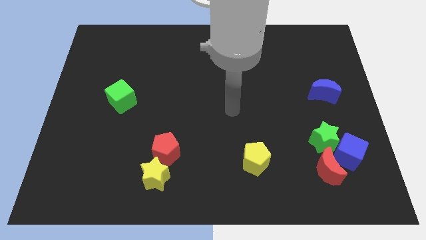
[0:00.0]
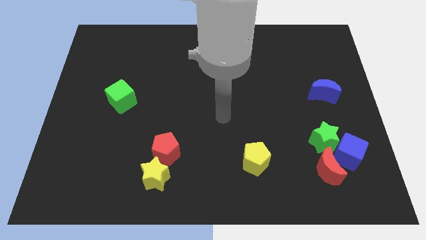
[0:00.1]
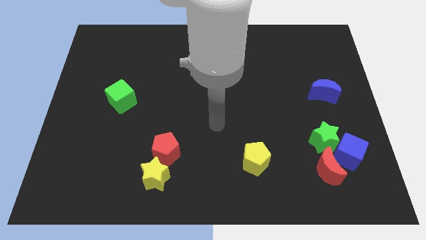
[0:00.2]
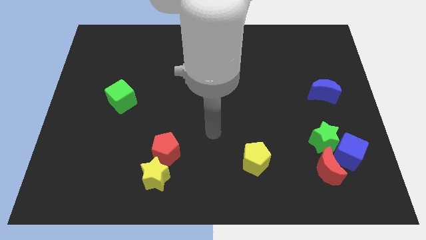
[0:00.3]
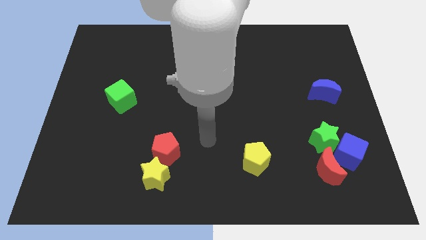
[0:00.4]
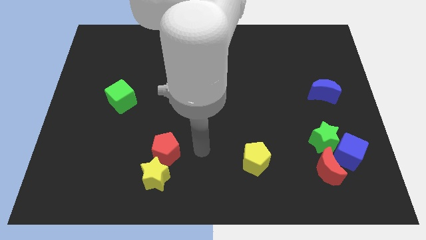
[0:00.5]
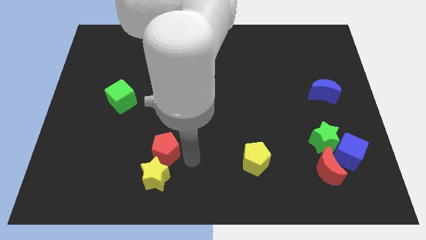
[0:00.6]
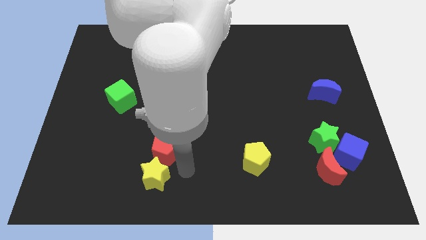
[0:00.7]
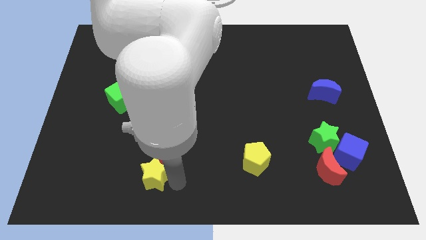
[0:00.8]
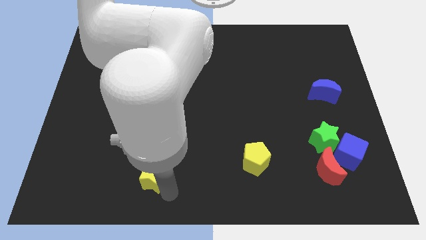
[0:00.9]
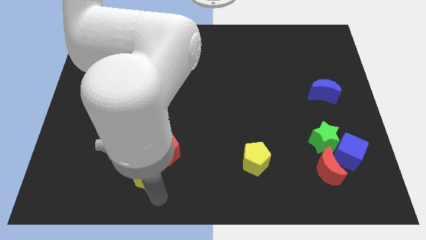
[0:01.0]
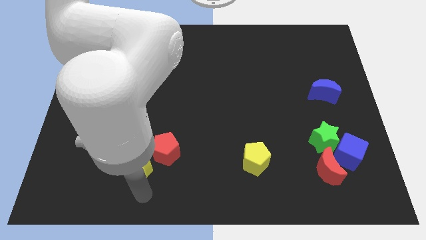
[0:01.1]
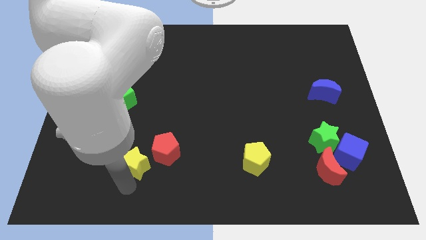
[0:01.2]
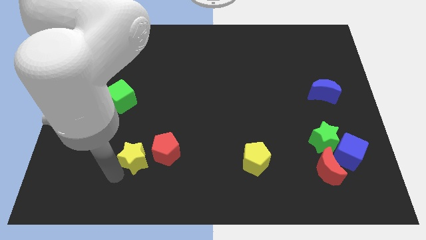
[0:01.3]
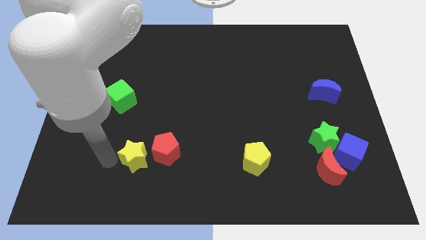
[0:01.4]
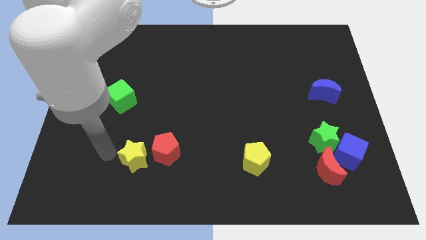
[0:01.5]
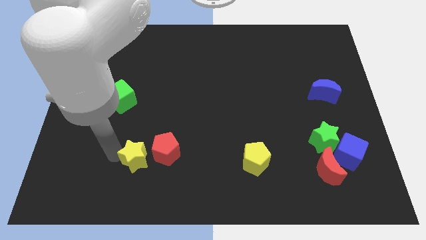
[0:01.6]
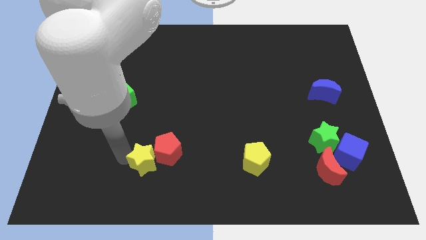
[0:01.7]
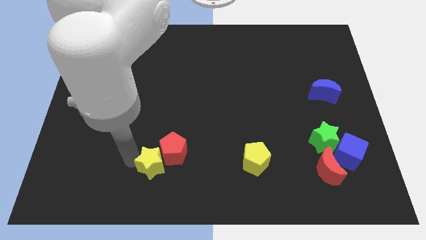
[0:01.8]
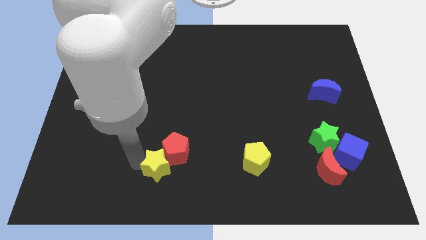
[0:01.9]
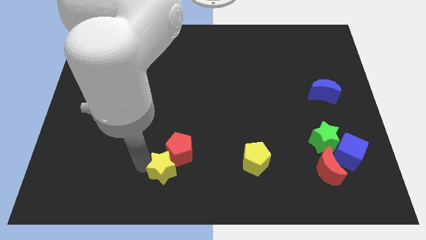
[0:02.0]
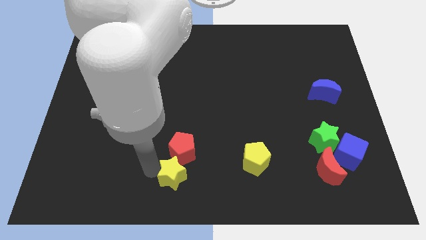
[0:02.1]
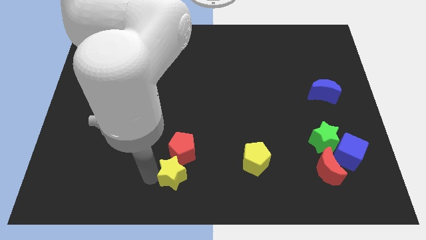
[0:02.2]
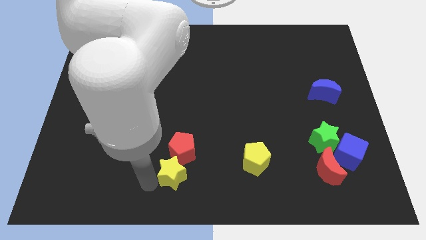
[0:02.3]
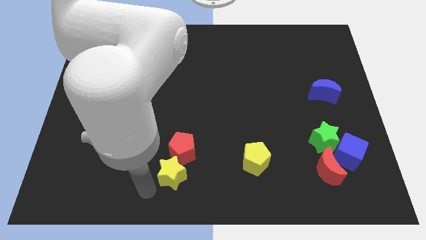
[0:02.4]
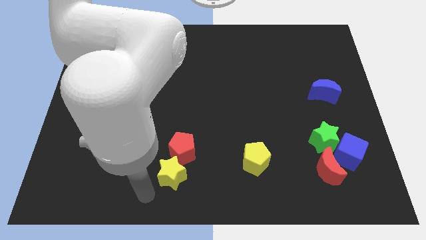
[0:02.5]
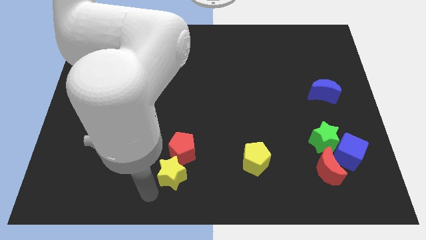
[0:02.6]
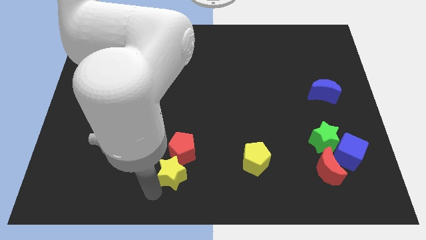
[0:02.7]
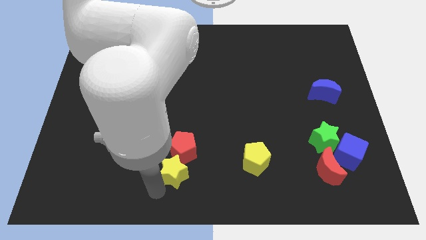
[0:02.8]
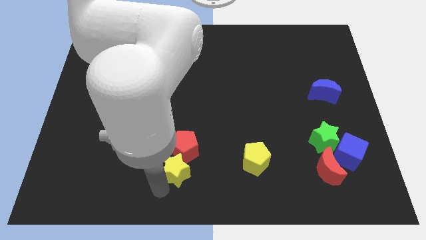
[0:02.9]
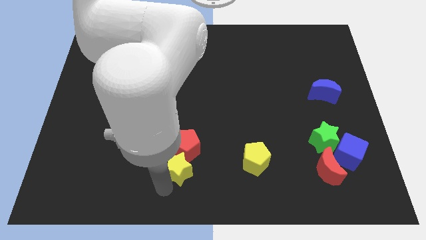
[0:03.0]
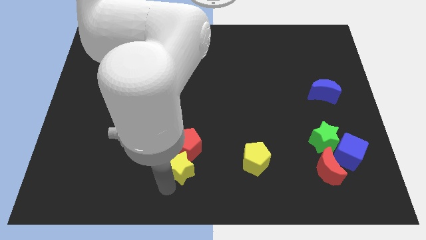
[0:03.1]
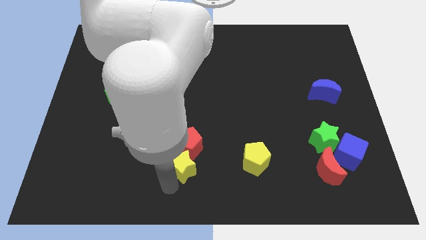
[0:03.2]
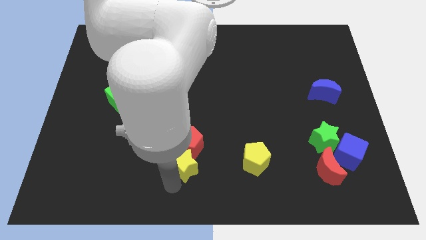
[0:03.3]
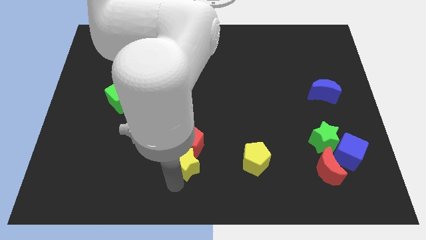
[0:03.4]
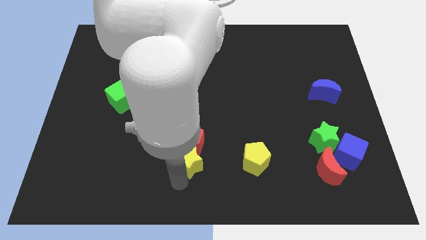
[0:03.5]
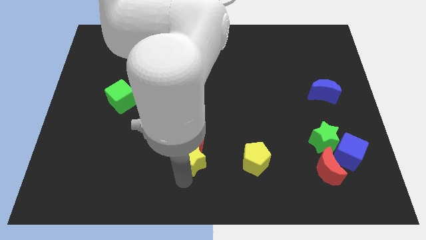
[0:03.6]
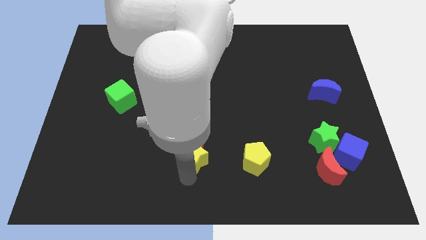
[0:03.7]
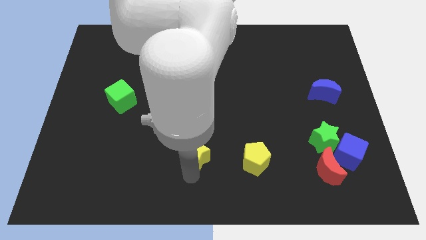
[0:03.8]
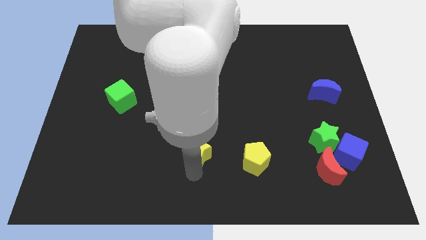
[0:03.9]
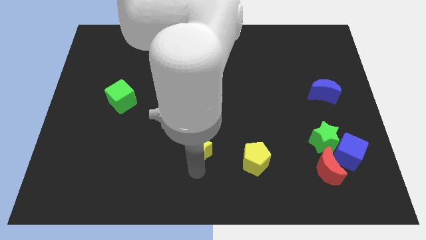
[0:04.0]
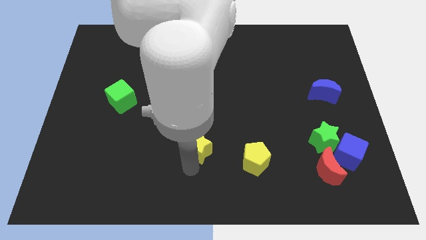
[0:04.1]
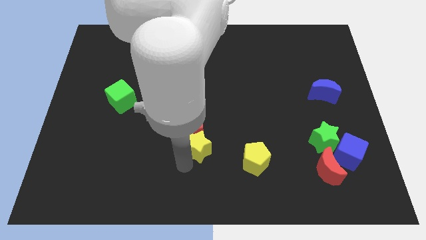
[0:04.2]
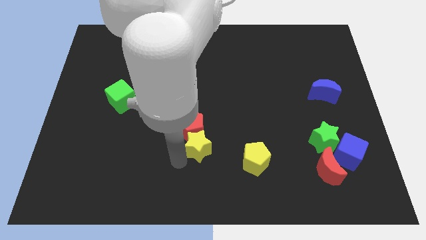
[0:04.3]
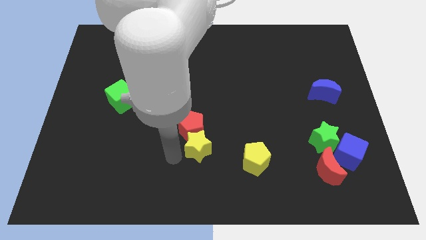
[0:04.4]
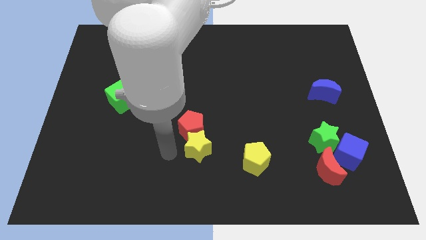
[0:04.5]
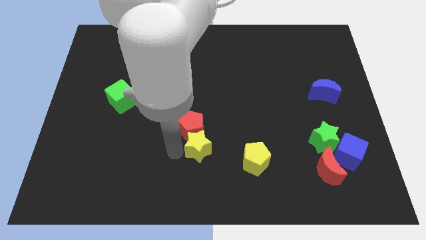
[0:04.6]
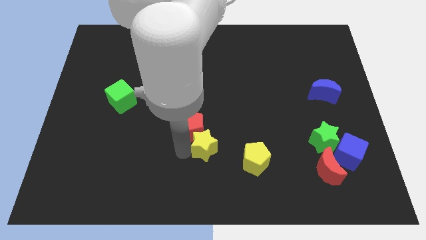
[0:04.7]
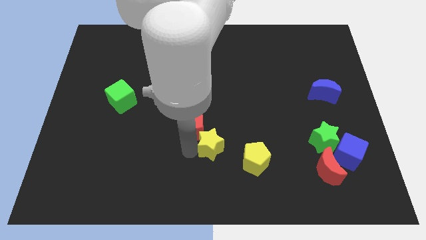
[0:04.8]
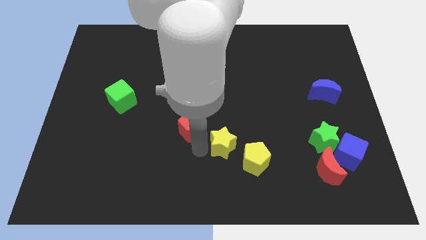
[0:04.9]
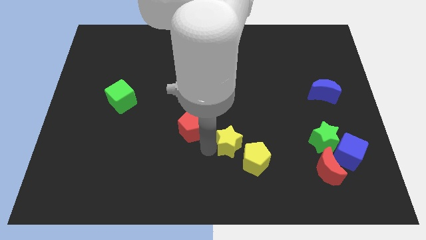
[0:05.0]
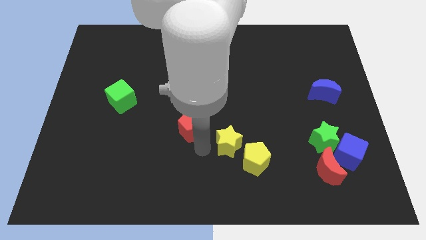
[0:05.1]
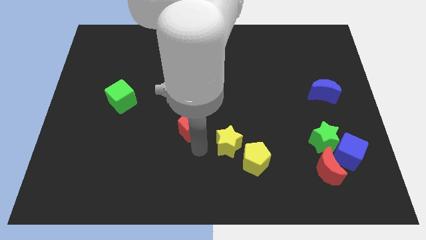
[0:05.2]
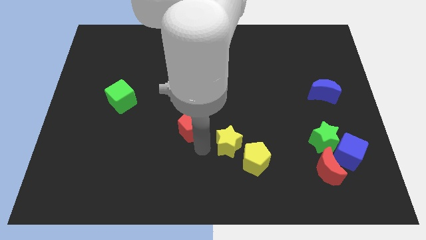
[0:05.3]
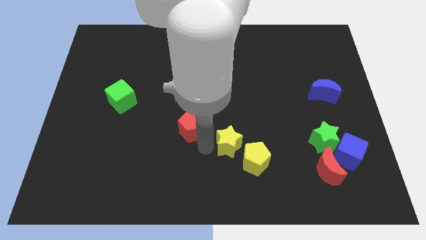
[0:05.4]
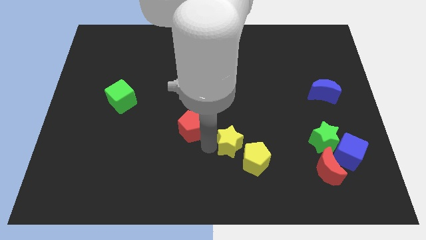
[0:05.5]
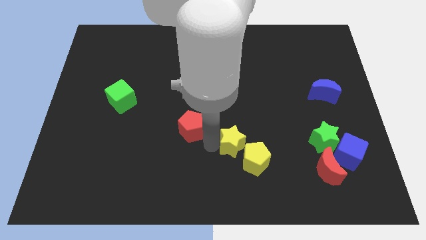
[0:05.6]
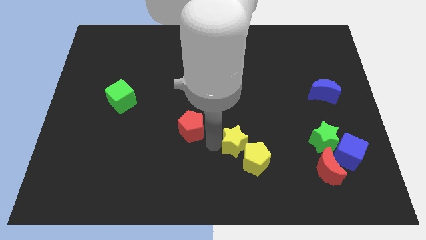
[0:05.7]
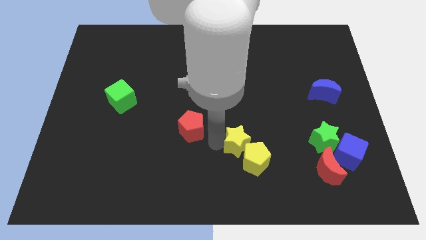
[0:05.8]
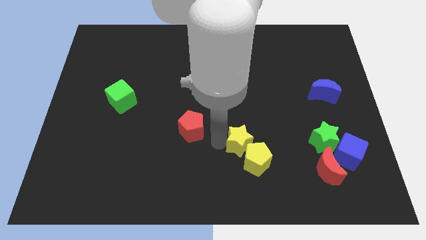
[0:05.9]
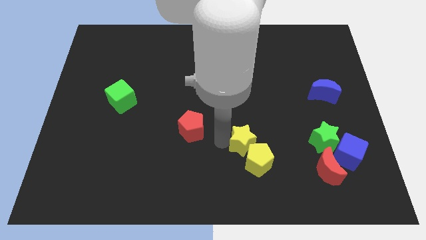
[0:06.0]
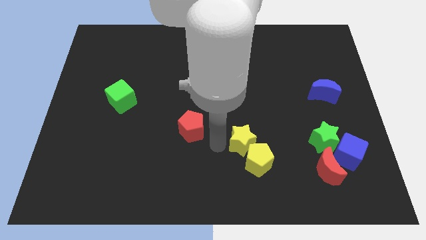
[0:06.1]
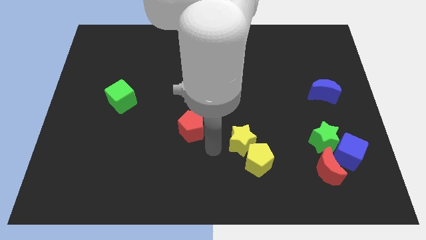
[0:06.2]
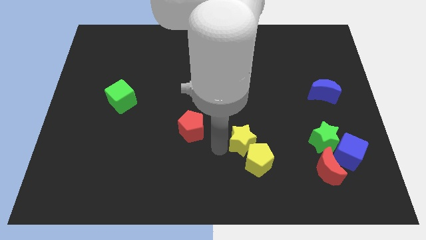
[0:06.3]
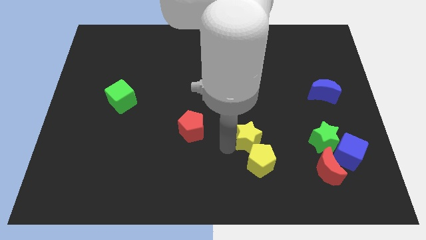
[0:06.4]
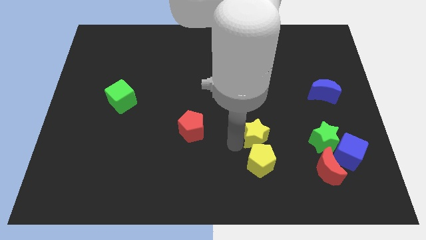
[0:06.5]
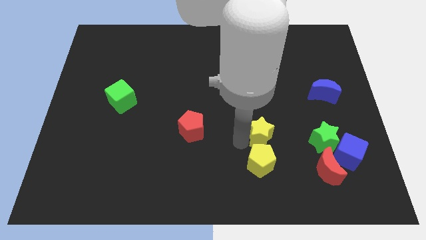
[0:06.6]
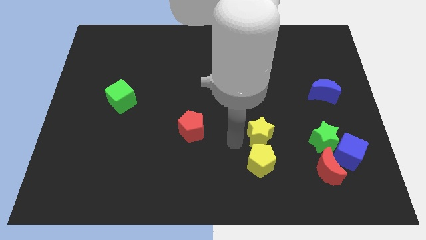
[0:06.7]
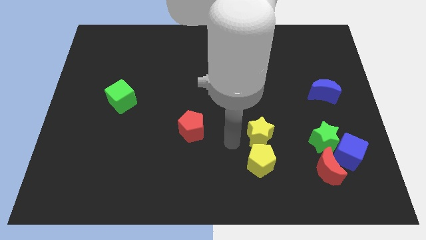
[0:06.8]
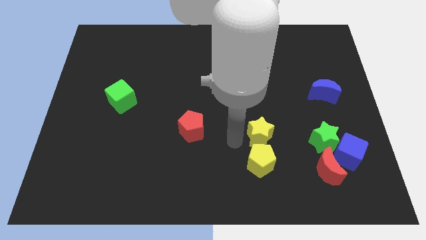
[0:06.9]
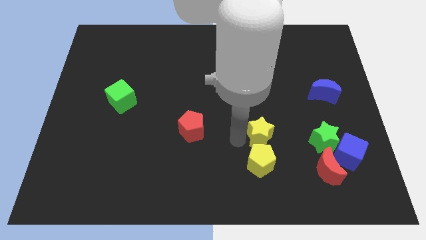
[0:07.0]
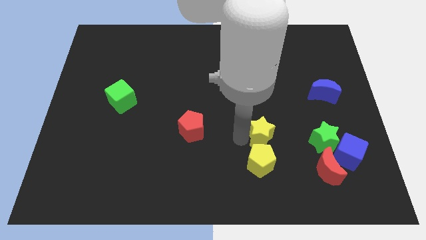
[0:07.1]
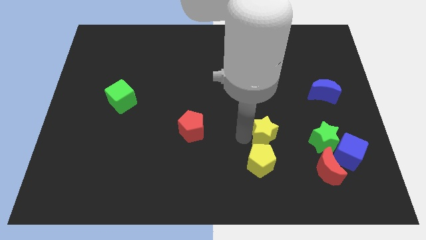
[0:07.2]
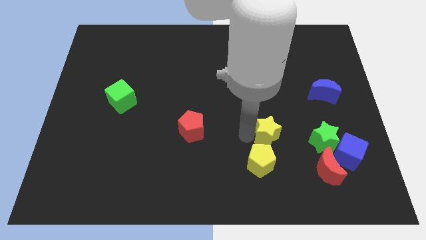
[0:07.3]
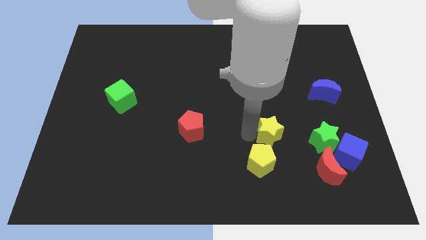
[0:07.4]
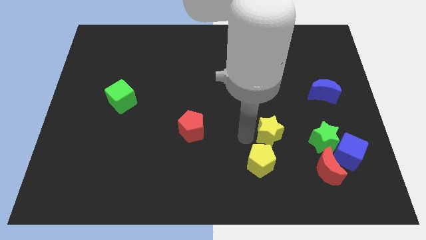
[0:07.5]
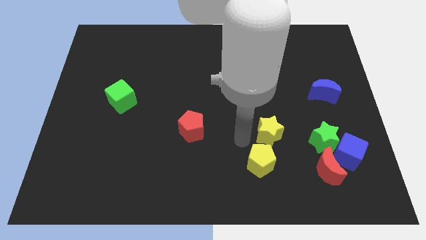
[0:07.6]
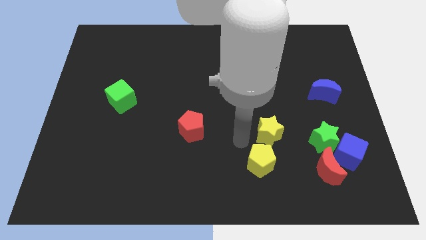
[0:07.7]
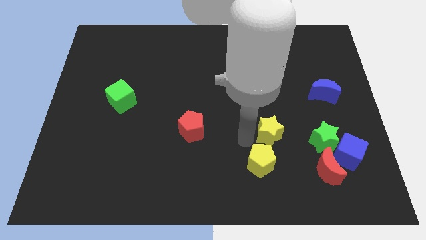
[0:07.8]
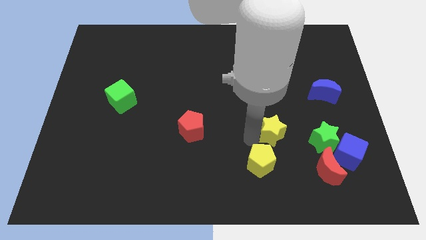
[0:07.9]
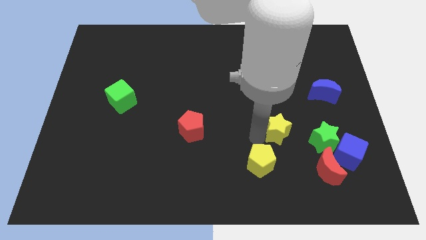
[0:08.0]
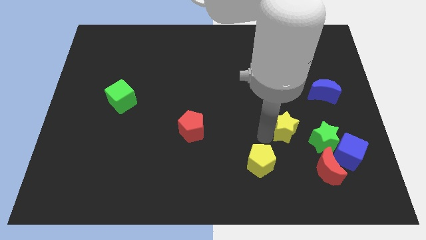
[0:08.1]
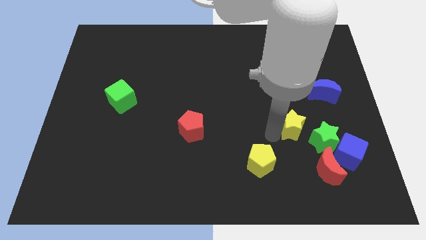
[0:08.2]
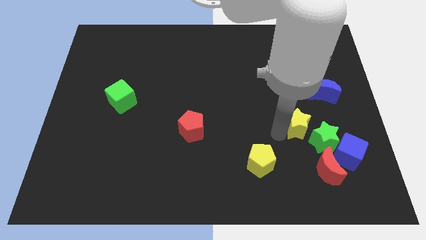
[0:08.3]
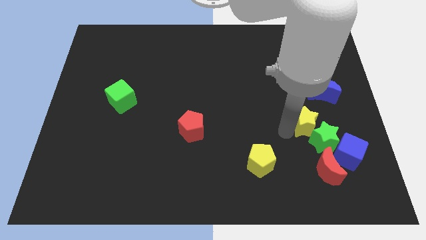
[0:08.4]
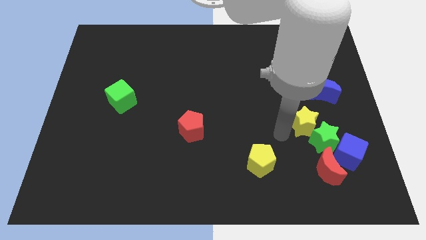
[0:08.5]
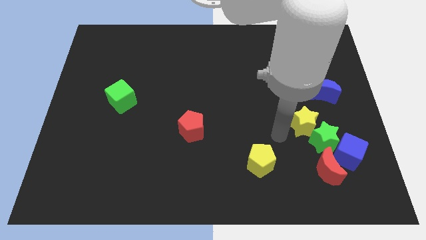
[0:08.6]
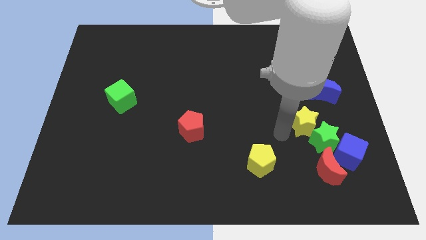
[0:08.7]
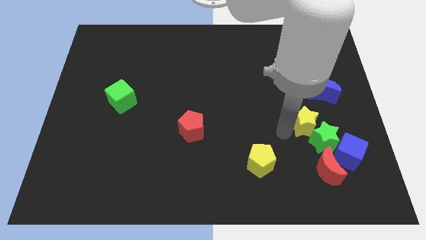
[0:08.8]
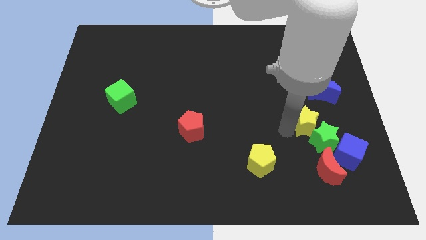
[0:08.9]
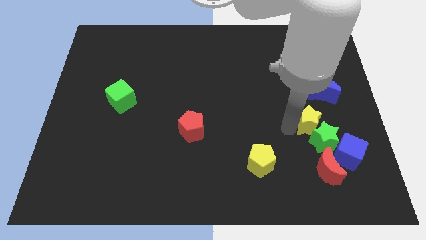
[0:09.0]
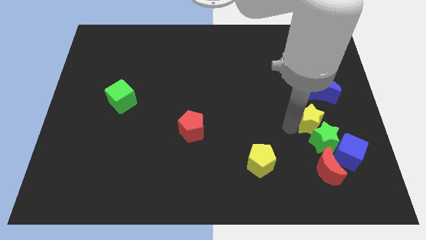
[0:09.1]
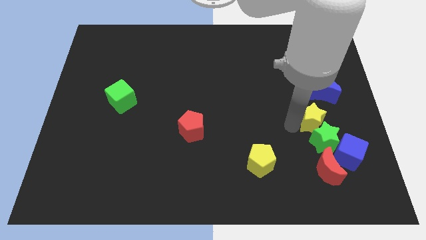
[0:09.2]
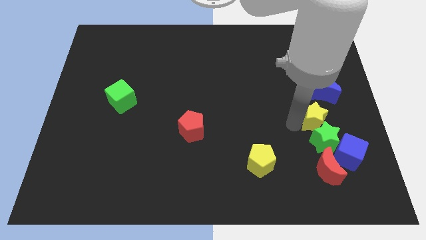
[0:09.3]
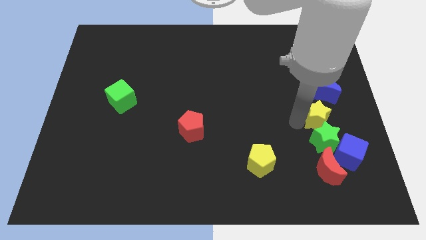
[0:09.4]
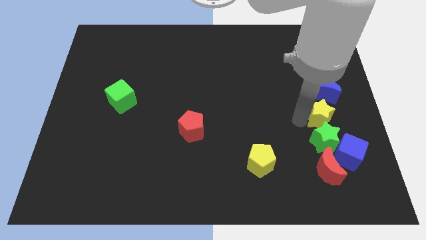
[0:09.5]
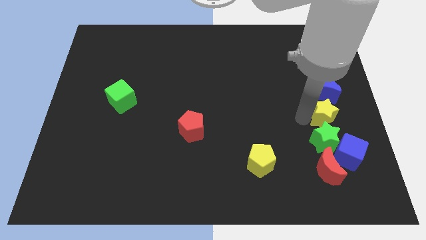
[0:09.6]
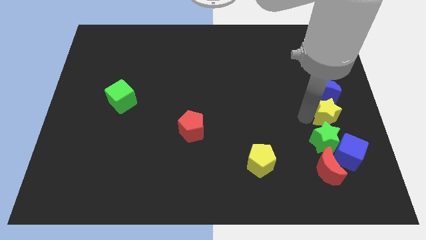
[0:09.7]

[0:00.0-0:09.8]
move the yellow star to the right side of the board
